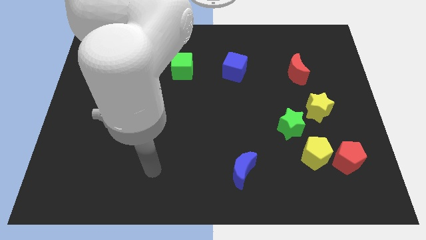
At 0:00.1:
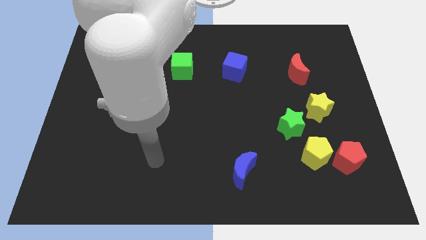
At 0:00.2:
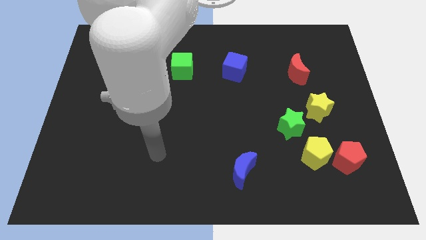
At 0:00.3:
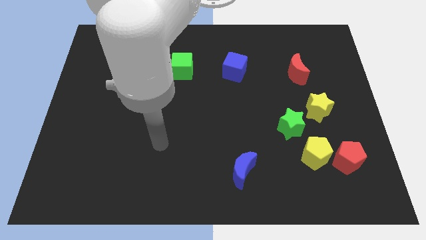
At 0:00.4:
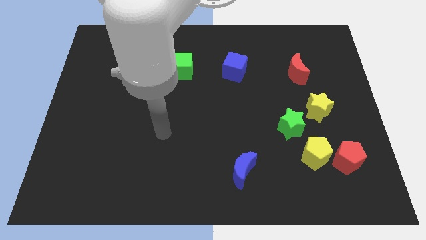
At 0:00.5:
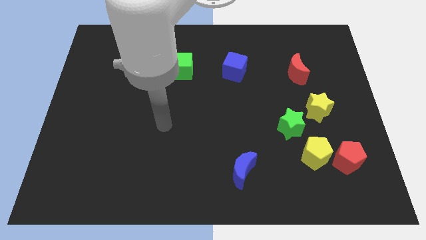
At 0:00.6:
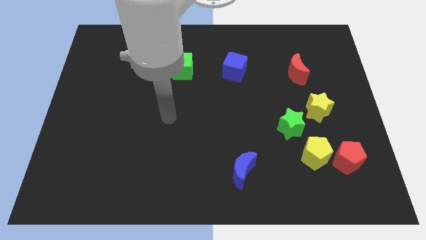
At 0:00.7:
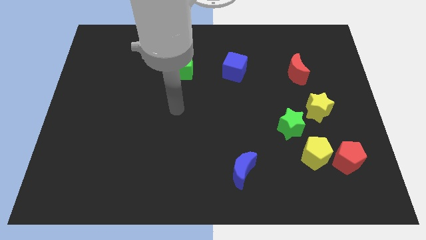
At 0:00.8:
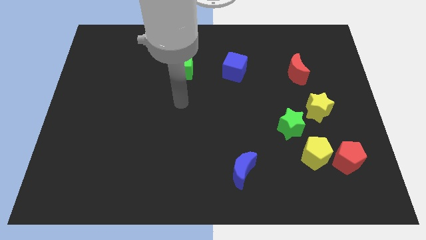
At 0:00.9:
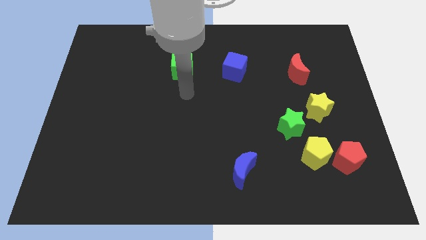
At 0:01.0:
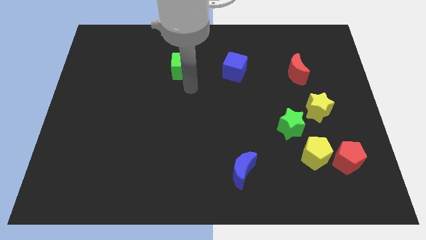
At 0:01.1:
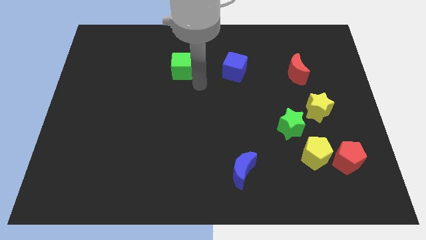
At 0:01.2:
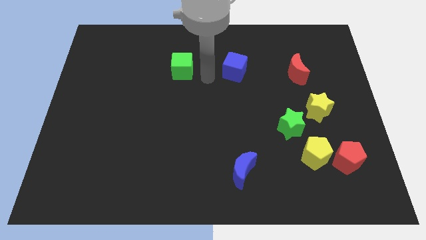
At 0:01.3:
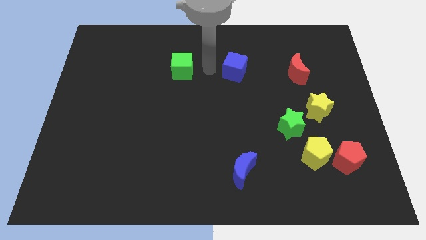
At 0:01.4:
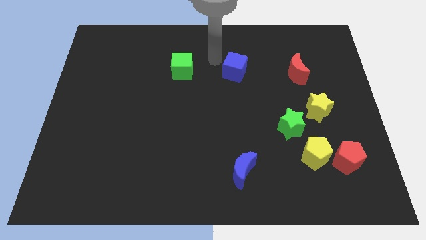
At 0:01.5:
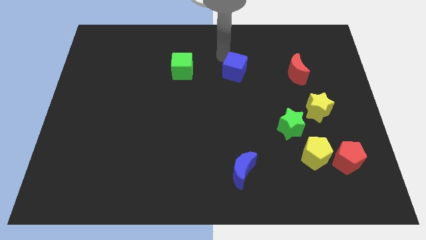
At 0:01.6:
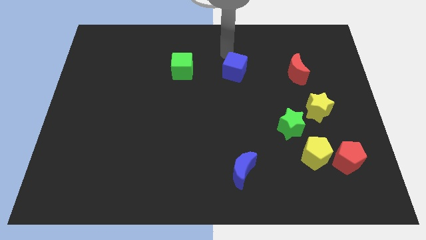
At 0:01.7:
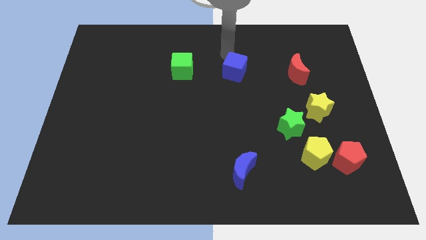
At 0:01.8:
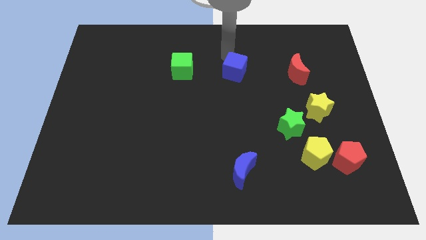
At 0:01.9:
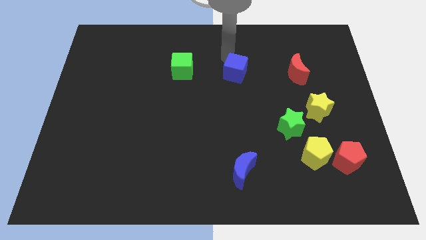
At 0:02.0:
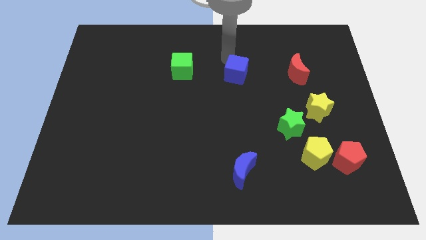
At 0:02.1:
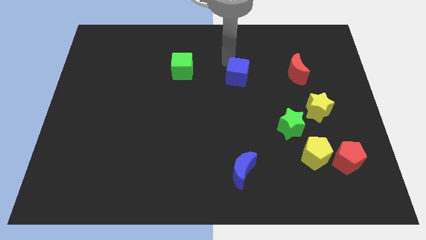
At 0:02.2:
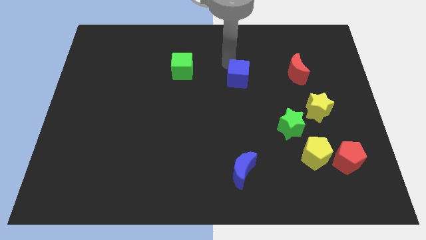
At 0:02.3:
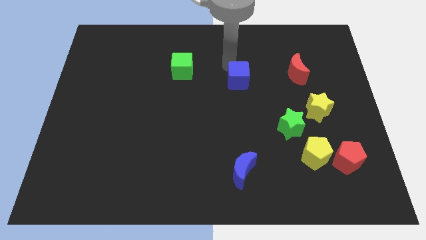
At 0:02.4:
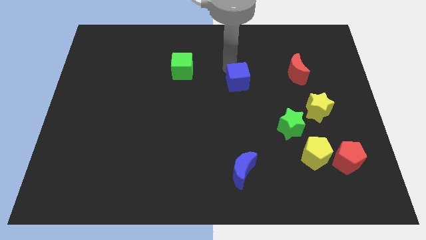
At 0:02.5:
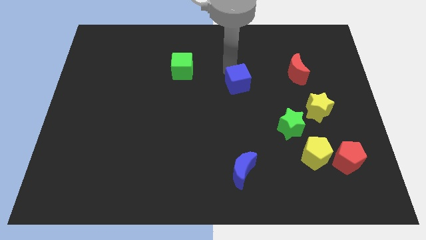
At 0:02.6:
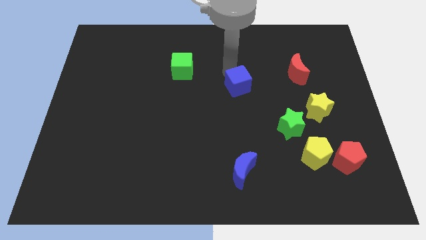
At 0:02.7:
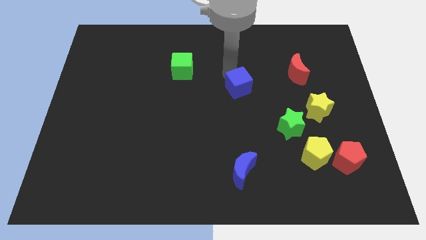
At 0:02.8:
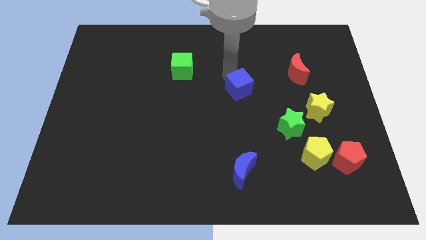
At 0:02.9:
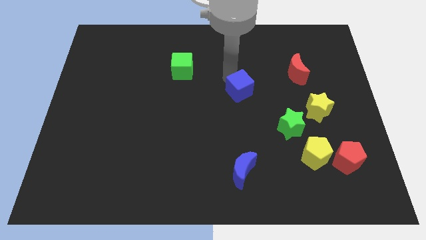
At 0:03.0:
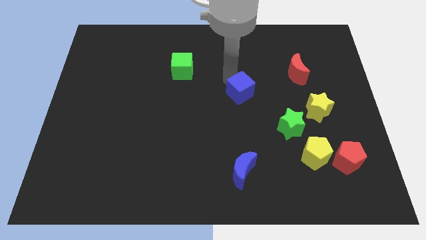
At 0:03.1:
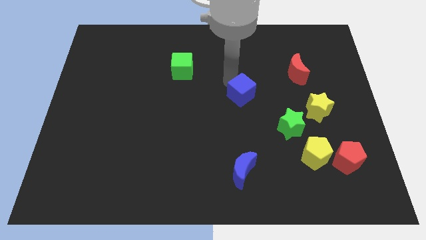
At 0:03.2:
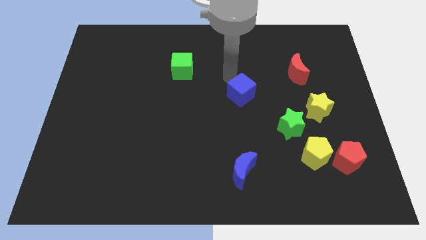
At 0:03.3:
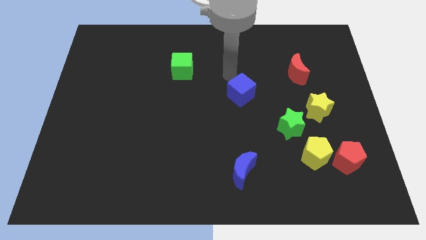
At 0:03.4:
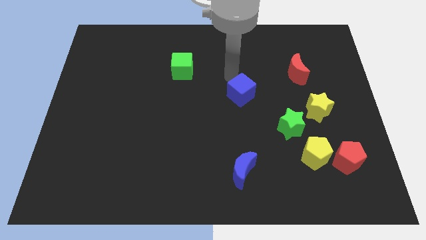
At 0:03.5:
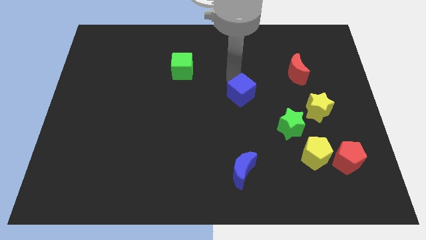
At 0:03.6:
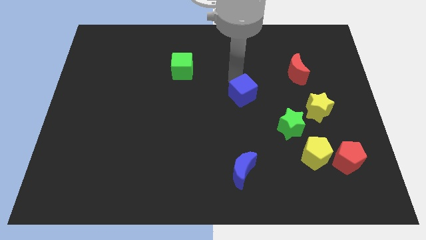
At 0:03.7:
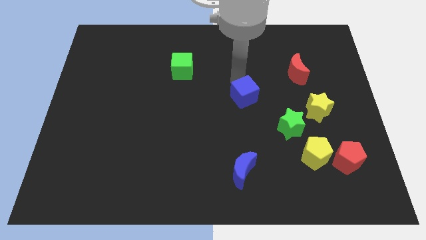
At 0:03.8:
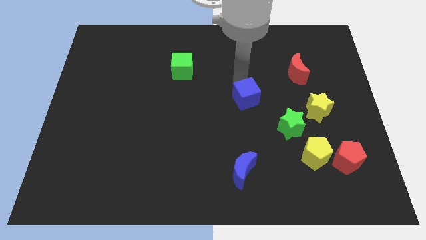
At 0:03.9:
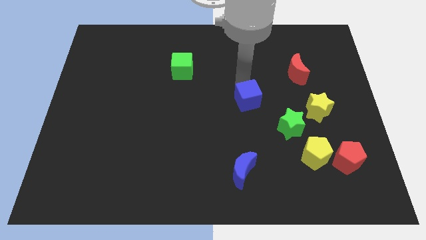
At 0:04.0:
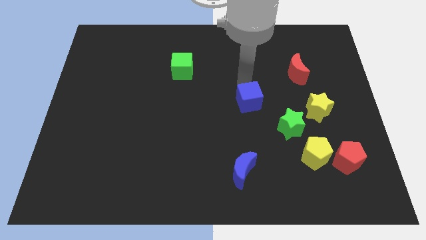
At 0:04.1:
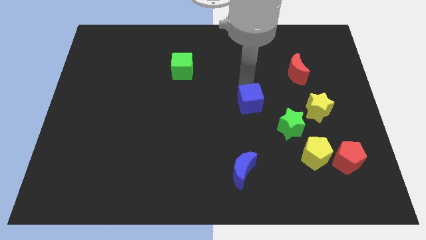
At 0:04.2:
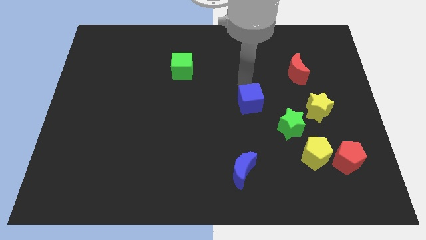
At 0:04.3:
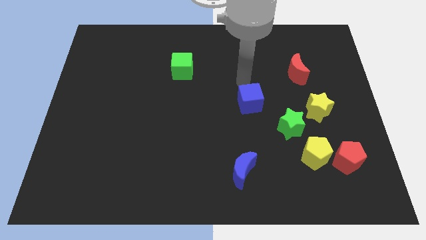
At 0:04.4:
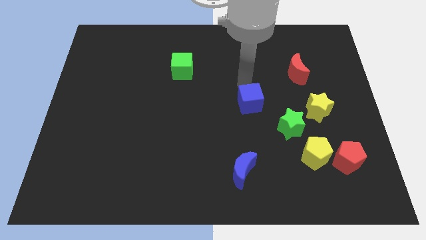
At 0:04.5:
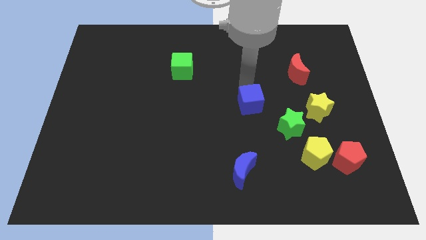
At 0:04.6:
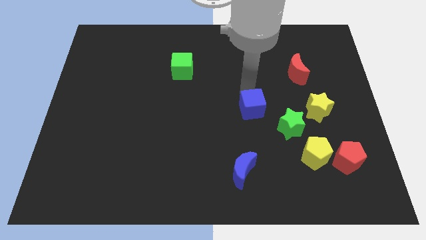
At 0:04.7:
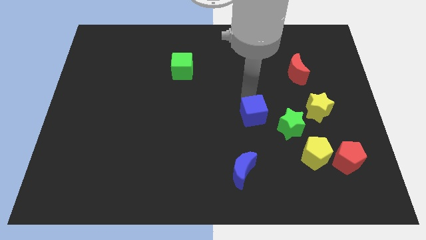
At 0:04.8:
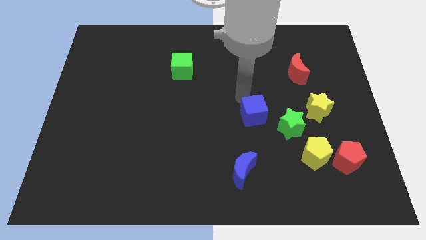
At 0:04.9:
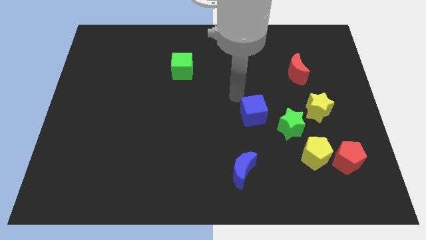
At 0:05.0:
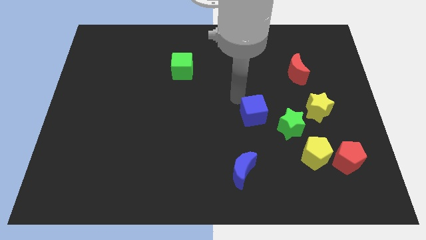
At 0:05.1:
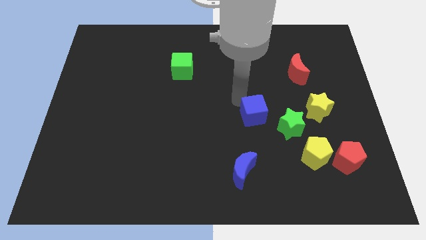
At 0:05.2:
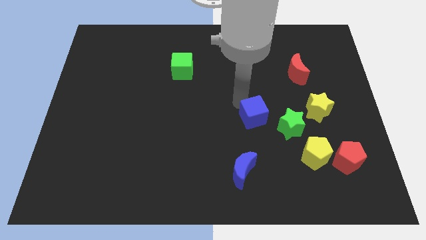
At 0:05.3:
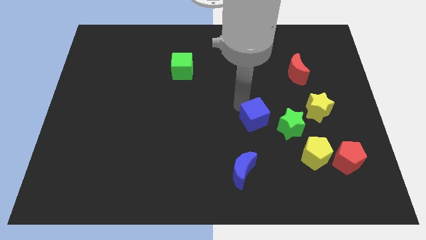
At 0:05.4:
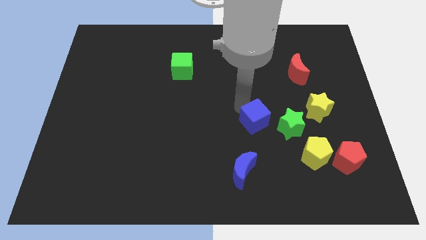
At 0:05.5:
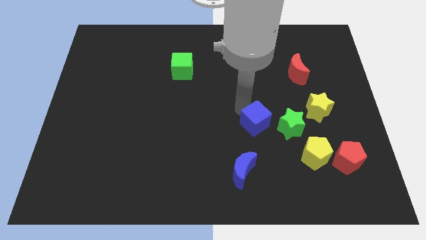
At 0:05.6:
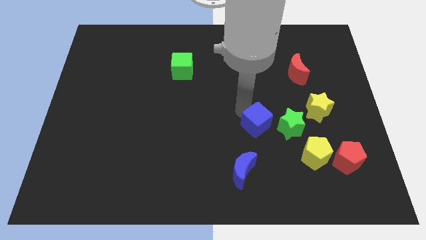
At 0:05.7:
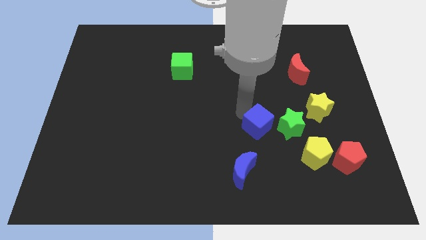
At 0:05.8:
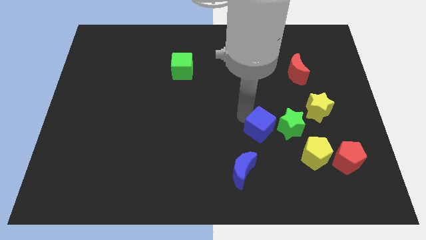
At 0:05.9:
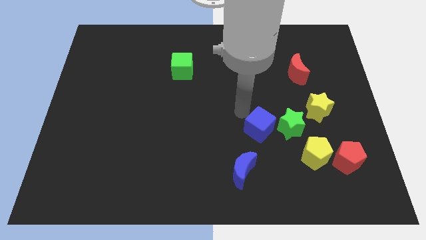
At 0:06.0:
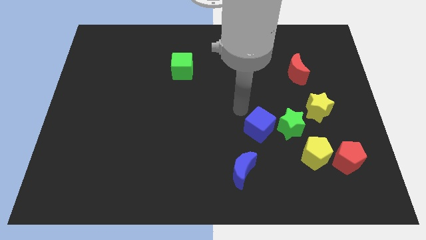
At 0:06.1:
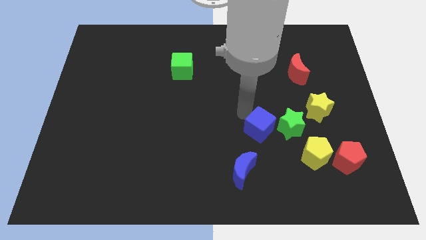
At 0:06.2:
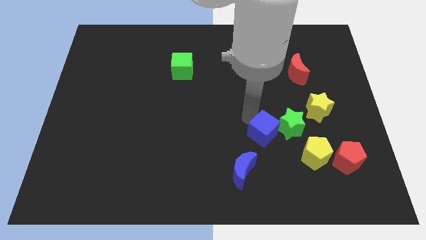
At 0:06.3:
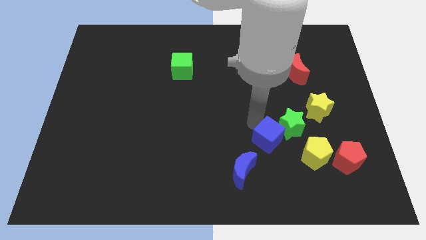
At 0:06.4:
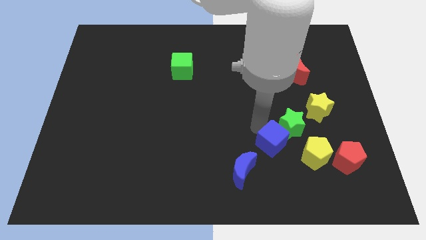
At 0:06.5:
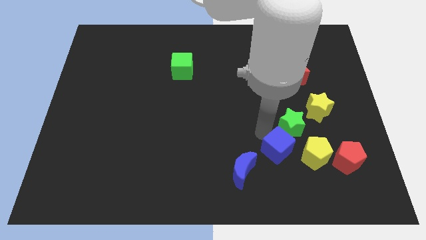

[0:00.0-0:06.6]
move the blue cube to the left side of the red pentagon
